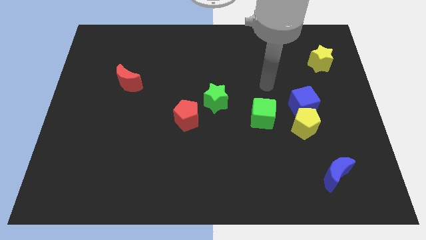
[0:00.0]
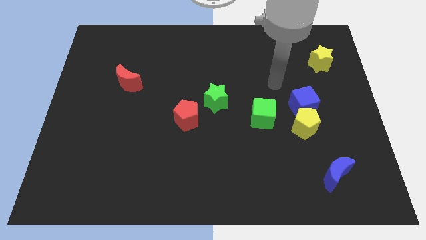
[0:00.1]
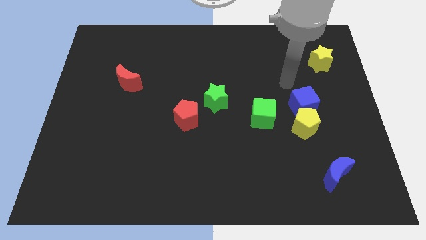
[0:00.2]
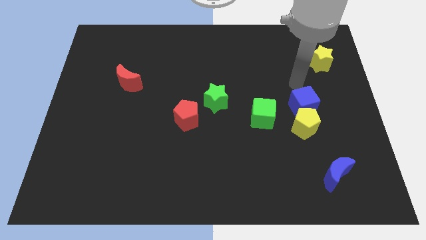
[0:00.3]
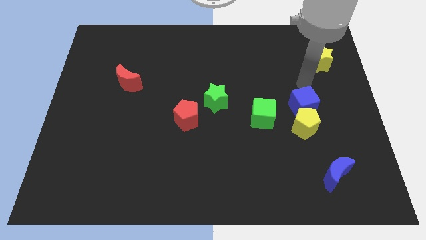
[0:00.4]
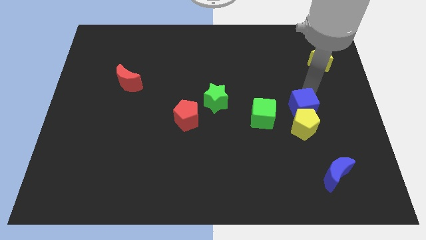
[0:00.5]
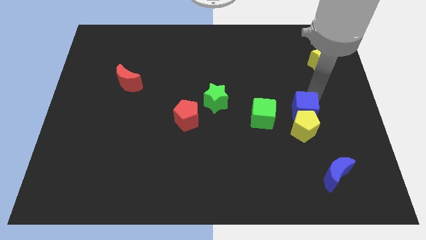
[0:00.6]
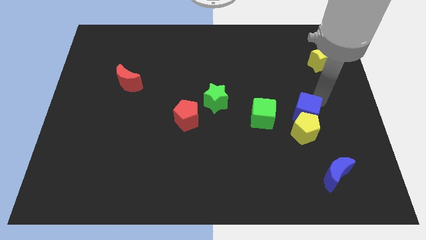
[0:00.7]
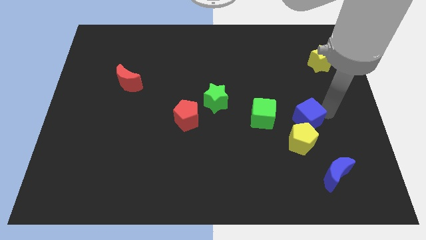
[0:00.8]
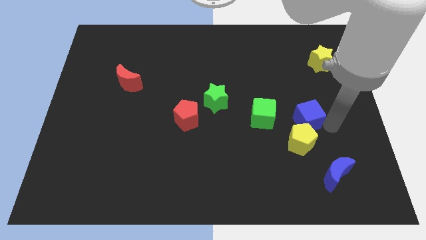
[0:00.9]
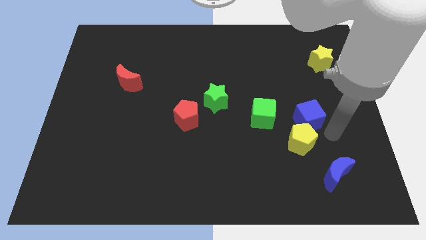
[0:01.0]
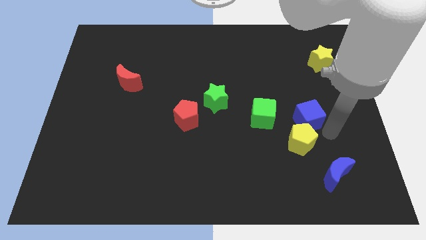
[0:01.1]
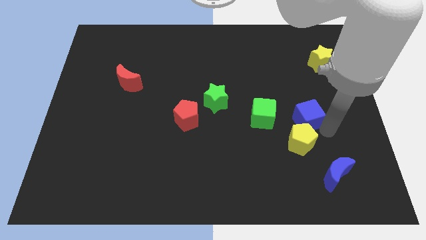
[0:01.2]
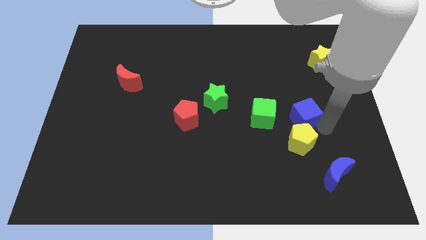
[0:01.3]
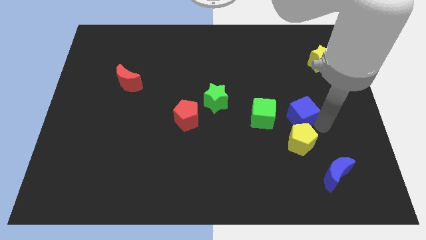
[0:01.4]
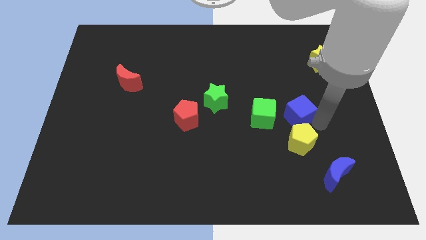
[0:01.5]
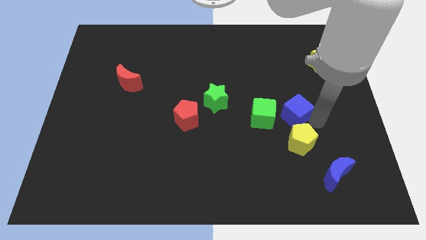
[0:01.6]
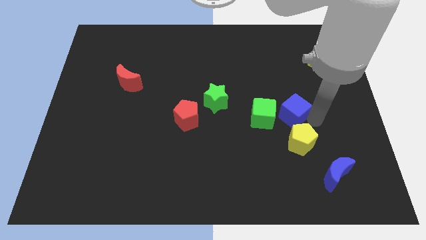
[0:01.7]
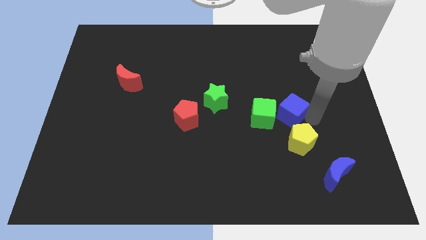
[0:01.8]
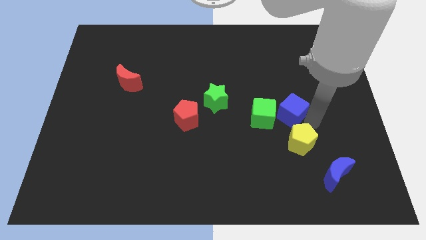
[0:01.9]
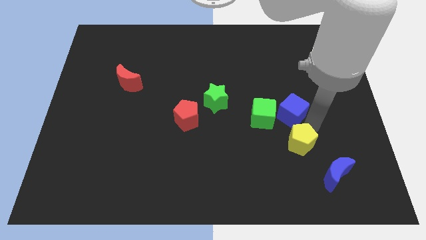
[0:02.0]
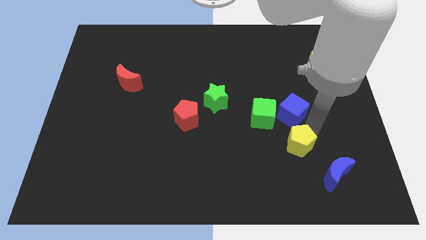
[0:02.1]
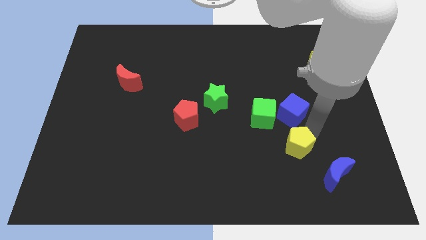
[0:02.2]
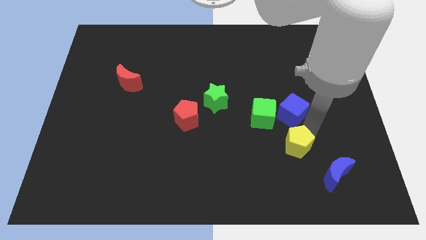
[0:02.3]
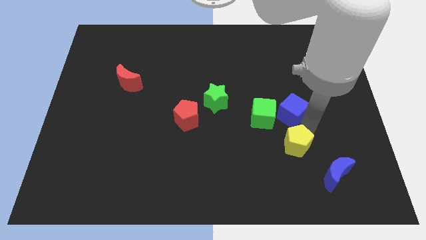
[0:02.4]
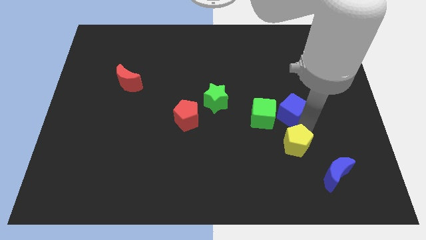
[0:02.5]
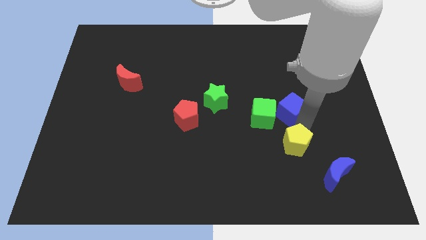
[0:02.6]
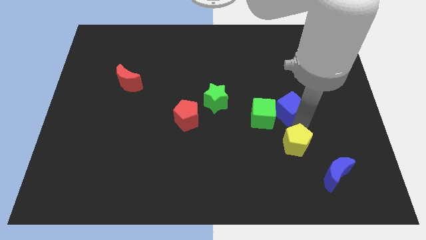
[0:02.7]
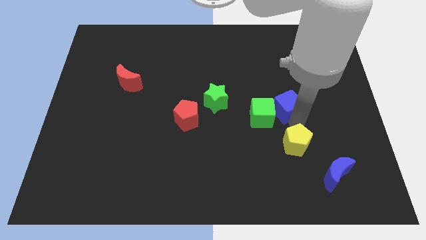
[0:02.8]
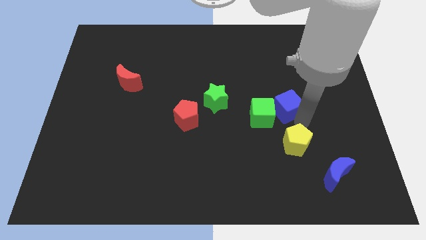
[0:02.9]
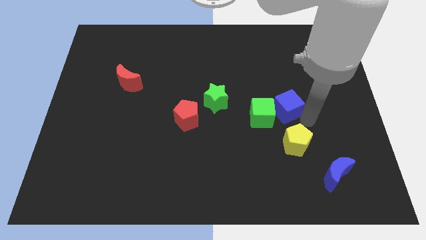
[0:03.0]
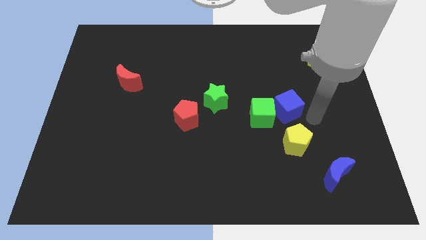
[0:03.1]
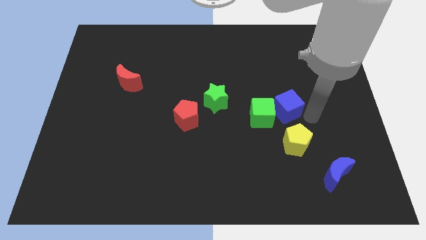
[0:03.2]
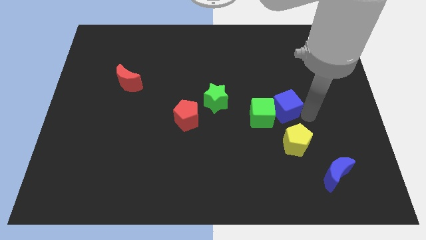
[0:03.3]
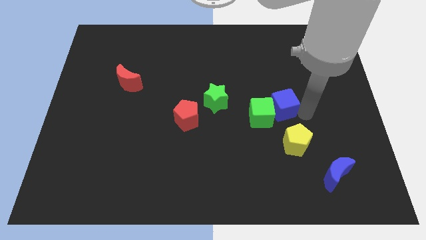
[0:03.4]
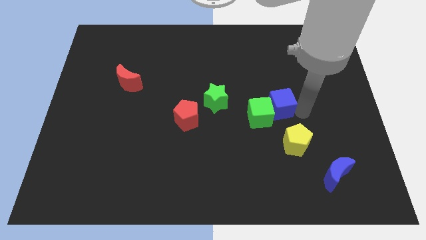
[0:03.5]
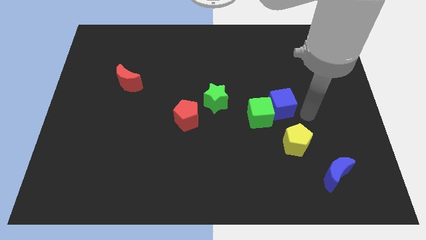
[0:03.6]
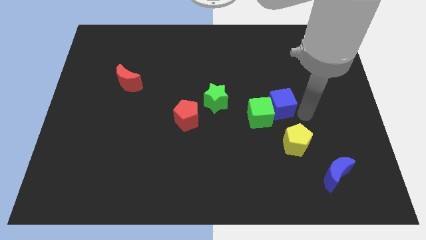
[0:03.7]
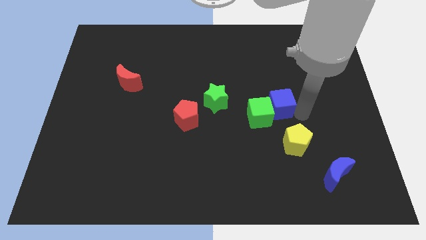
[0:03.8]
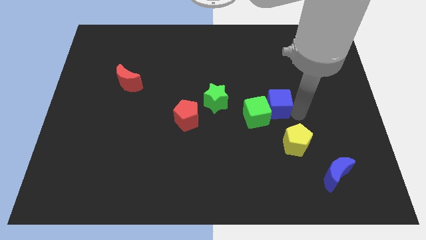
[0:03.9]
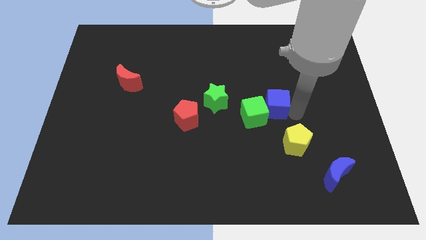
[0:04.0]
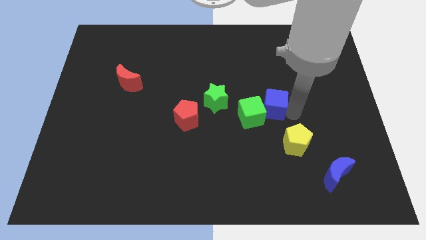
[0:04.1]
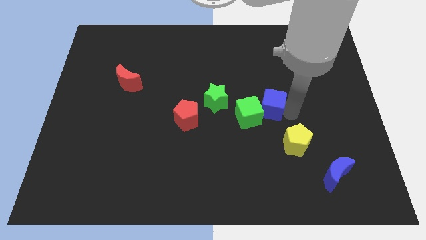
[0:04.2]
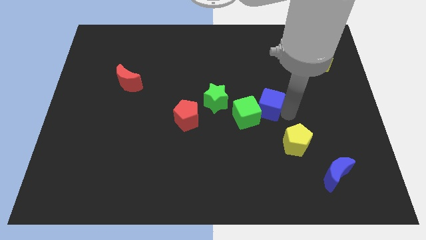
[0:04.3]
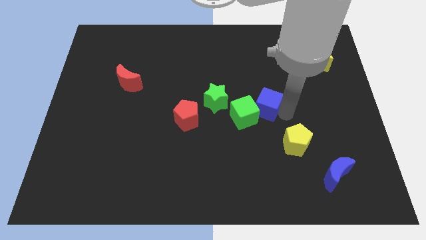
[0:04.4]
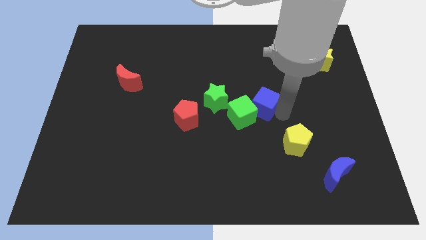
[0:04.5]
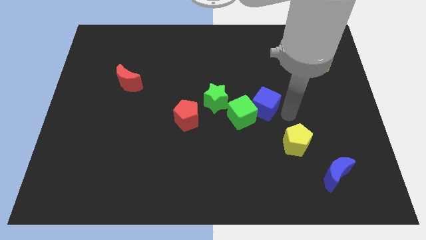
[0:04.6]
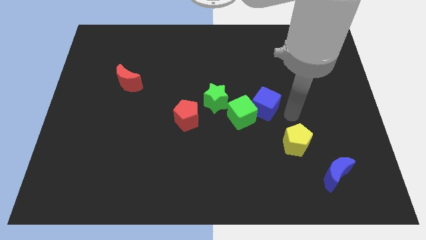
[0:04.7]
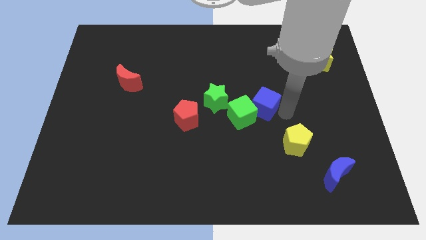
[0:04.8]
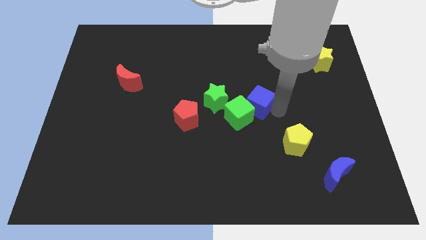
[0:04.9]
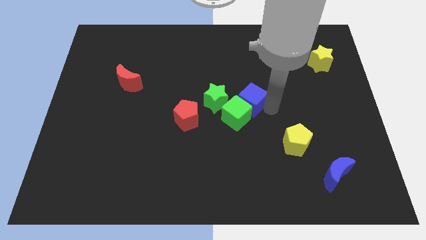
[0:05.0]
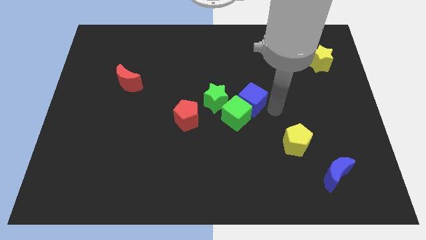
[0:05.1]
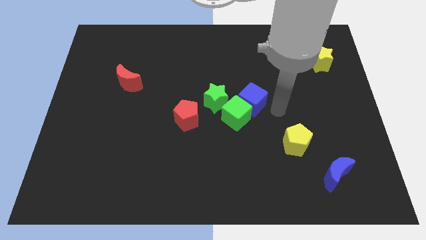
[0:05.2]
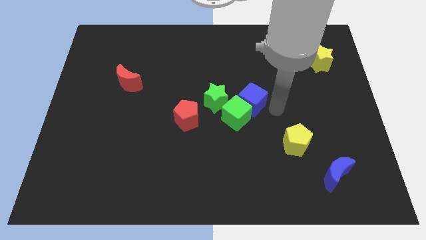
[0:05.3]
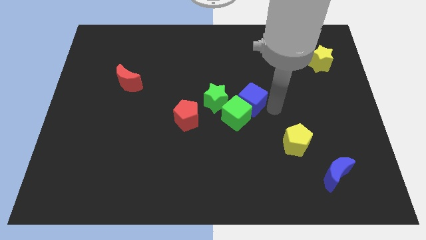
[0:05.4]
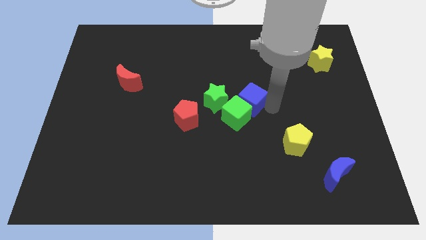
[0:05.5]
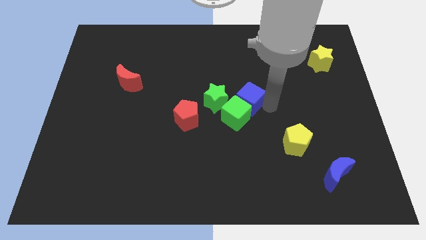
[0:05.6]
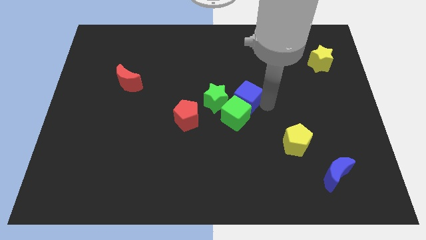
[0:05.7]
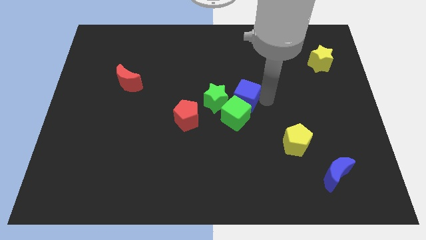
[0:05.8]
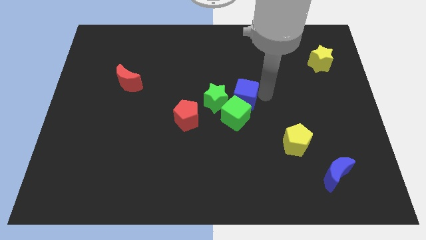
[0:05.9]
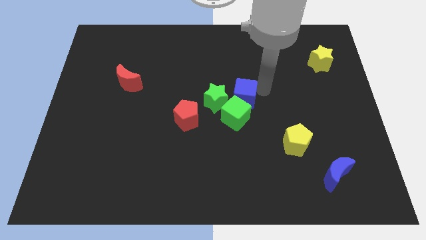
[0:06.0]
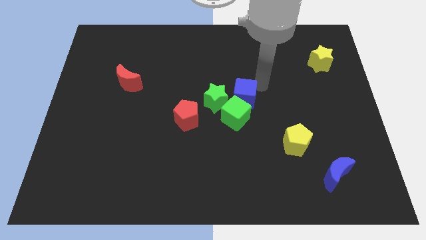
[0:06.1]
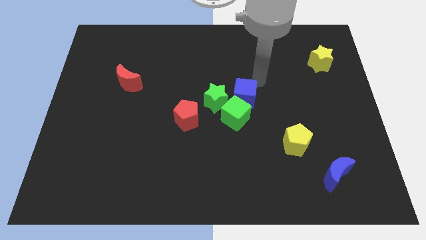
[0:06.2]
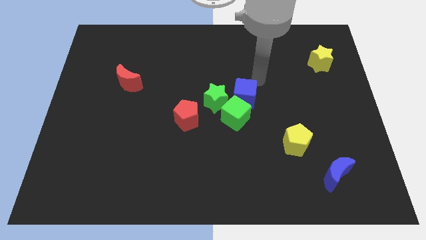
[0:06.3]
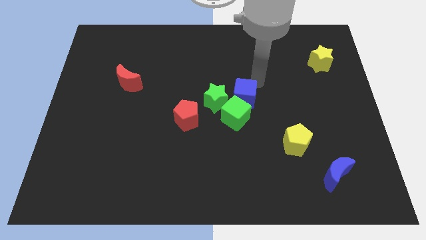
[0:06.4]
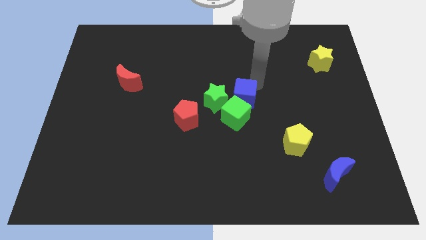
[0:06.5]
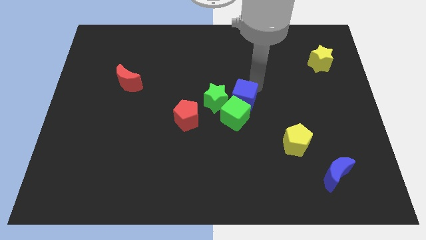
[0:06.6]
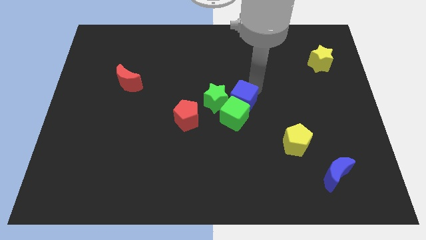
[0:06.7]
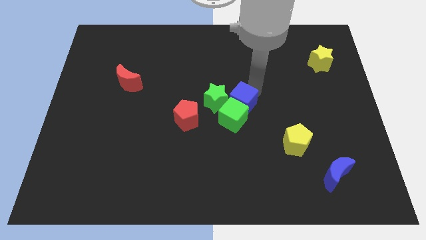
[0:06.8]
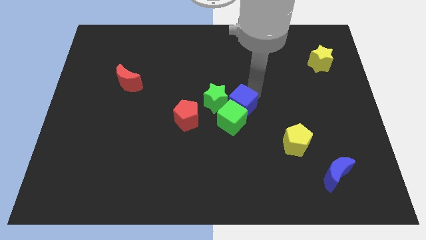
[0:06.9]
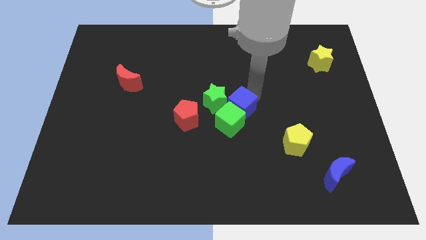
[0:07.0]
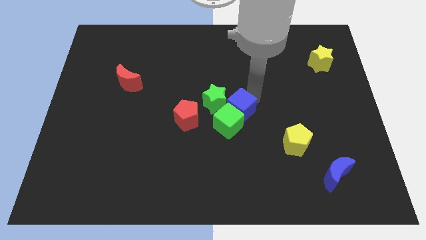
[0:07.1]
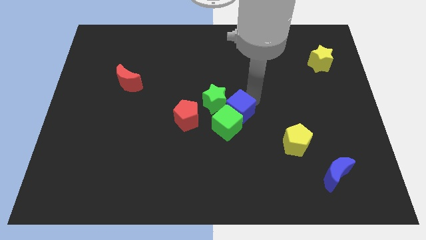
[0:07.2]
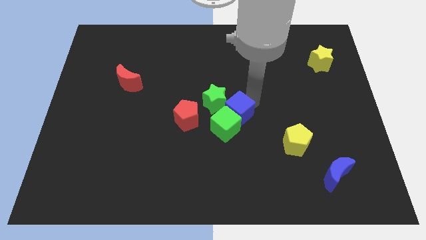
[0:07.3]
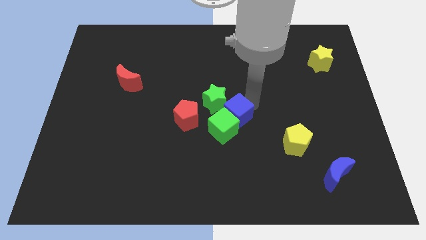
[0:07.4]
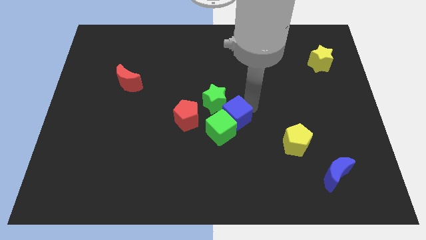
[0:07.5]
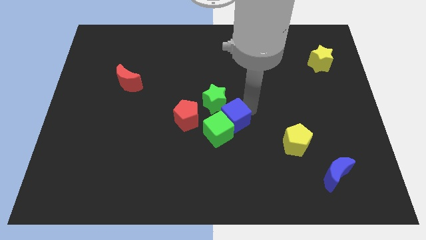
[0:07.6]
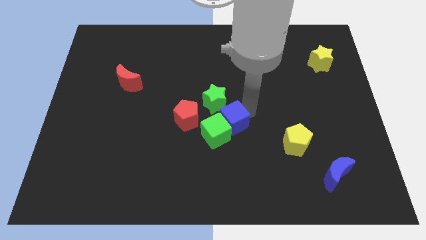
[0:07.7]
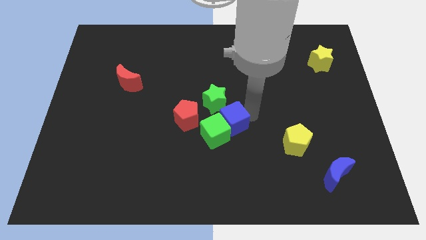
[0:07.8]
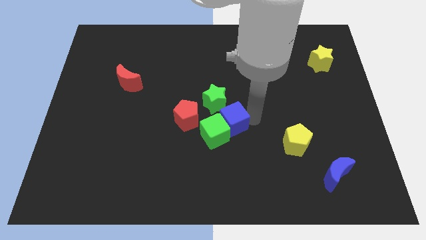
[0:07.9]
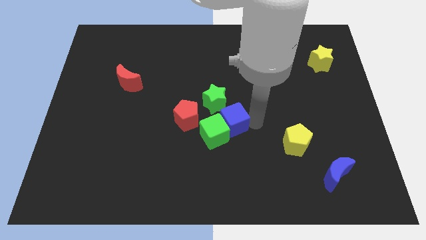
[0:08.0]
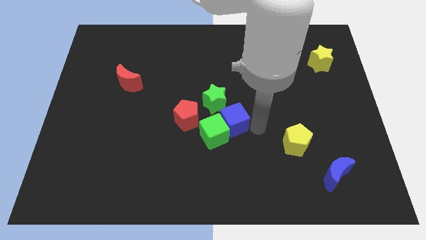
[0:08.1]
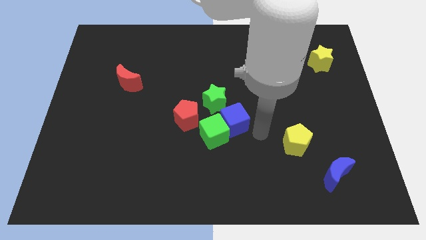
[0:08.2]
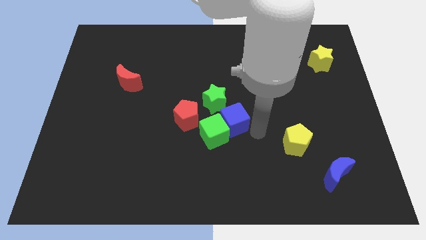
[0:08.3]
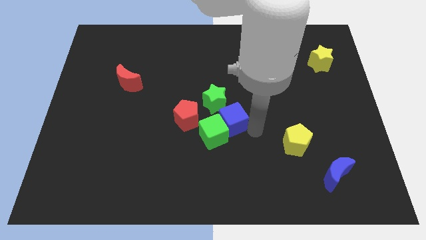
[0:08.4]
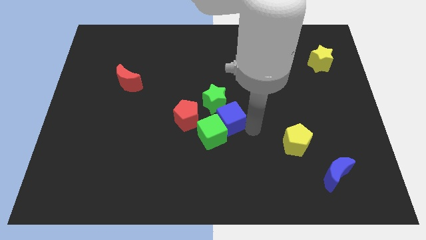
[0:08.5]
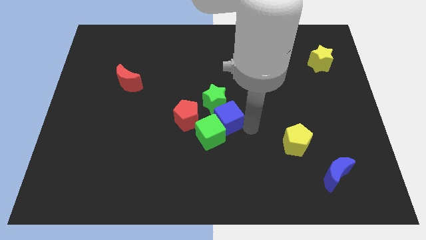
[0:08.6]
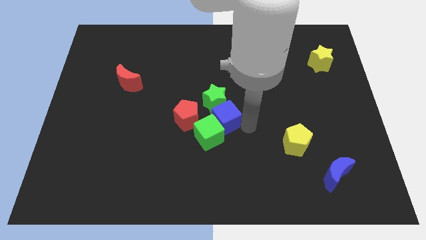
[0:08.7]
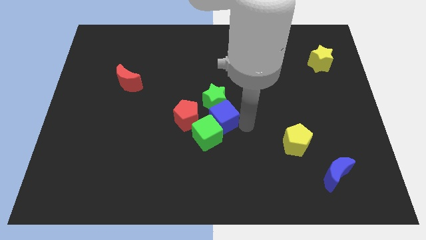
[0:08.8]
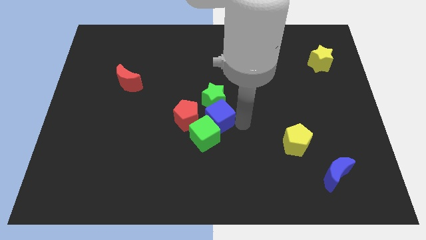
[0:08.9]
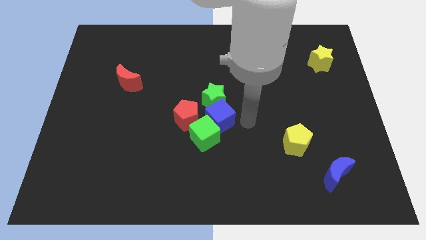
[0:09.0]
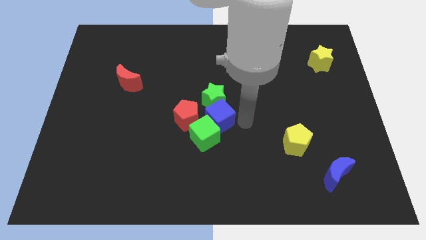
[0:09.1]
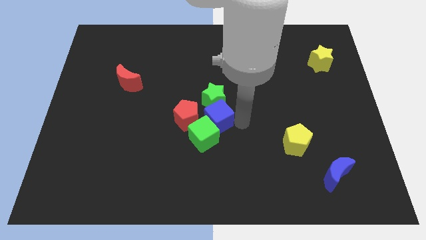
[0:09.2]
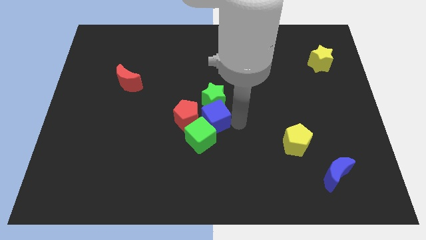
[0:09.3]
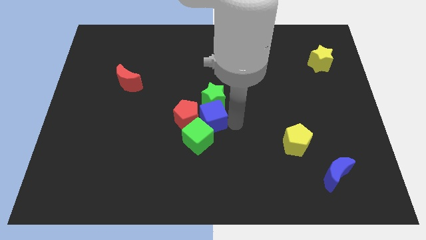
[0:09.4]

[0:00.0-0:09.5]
put the blue cube next to the red pentagon
